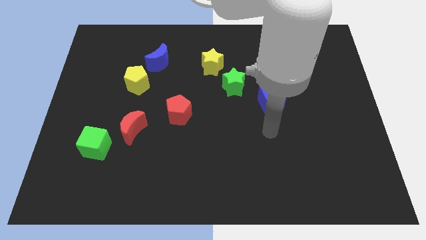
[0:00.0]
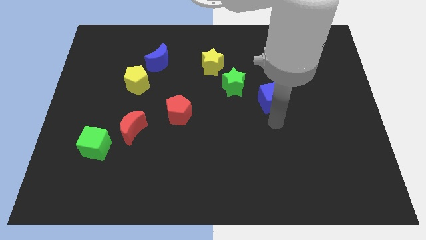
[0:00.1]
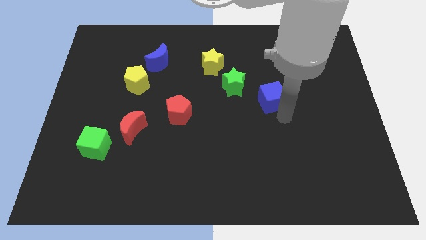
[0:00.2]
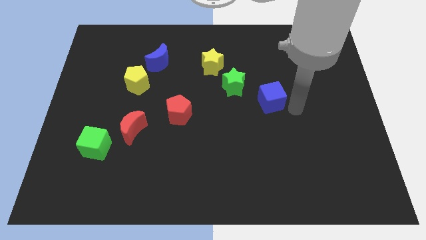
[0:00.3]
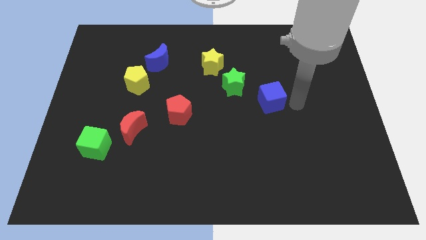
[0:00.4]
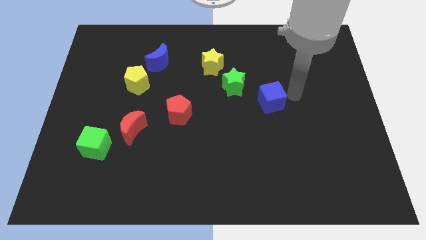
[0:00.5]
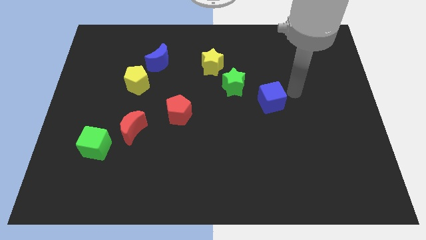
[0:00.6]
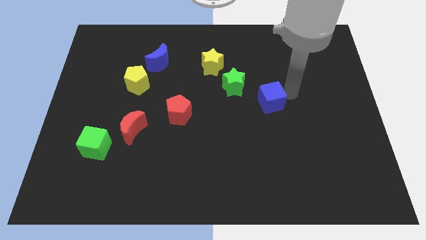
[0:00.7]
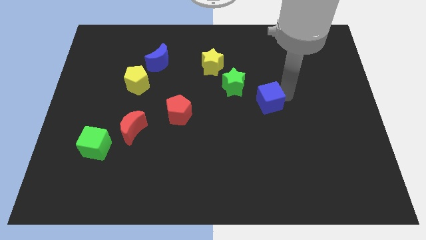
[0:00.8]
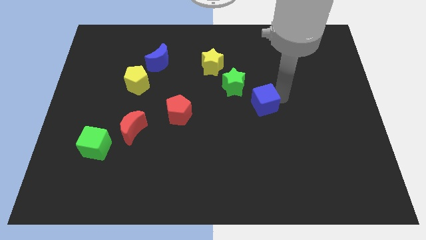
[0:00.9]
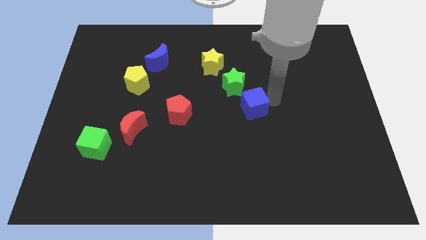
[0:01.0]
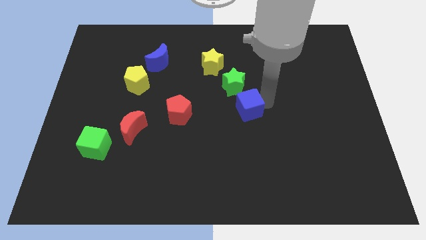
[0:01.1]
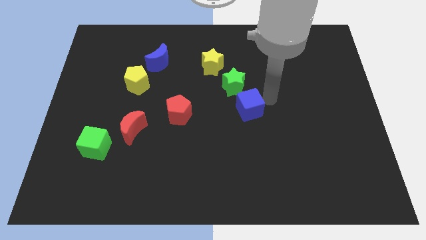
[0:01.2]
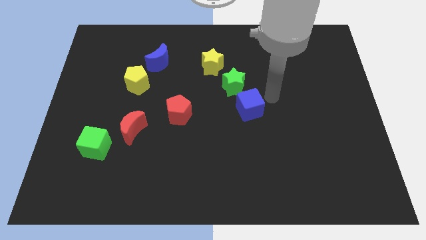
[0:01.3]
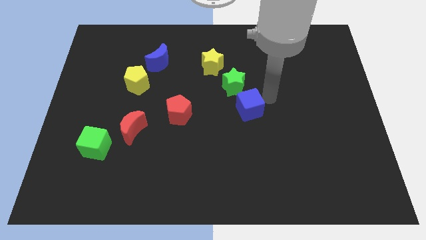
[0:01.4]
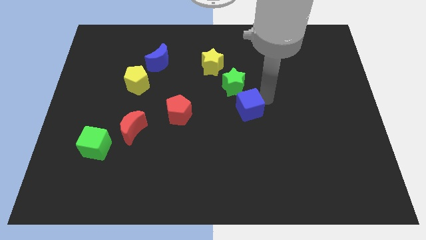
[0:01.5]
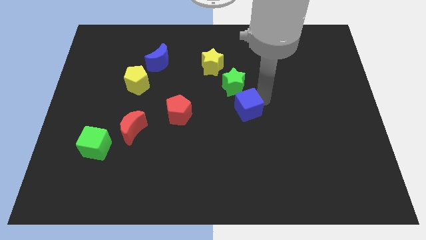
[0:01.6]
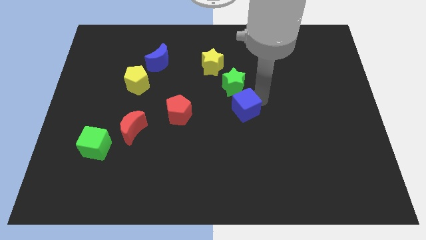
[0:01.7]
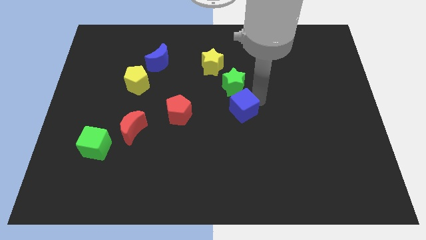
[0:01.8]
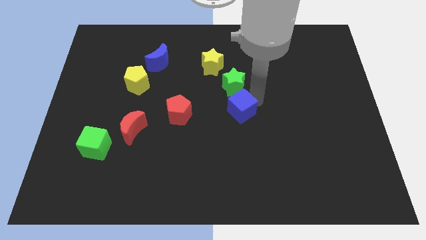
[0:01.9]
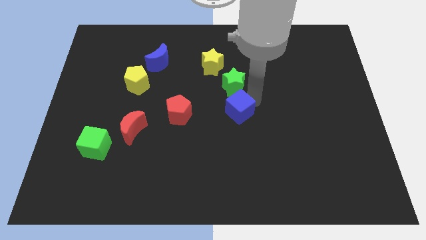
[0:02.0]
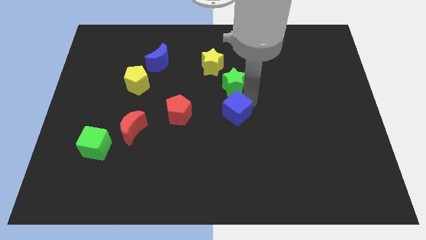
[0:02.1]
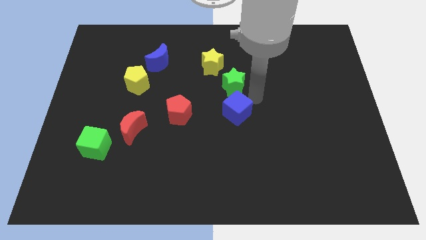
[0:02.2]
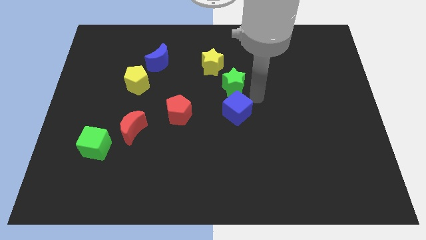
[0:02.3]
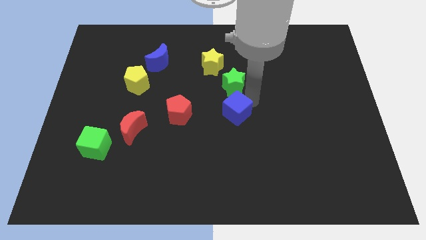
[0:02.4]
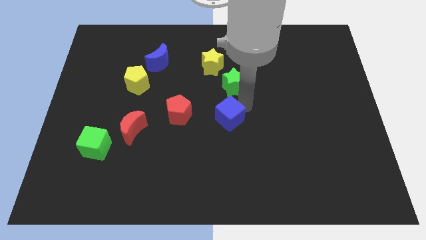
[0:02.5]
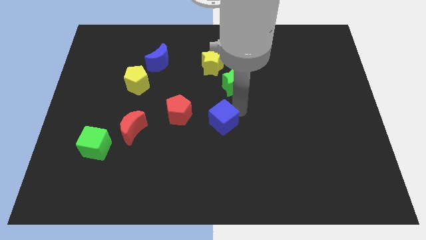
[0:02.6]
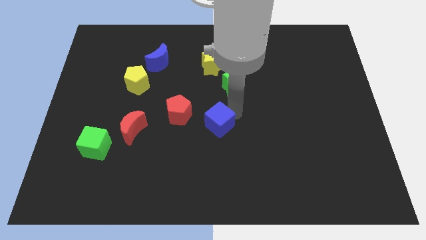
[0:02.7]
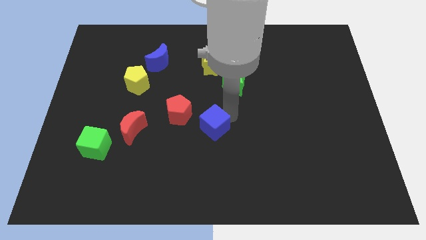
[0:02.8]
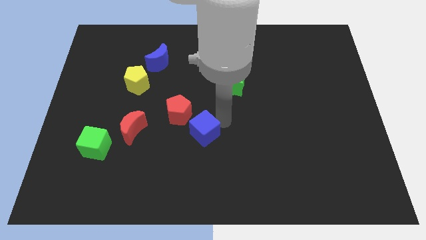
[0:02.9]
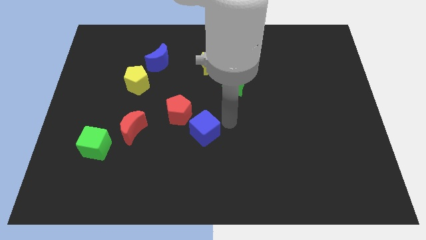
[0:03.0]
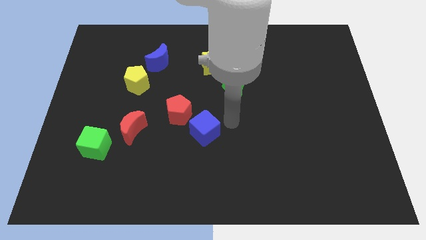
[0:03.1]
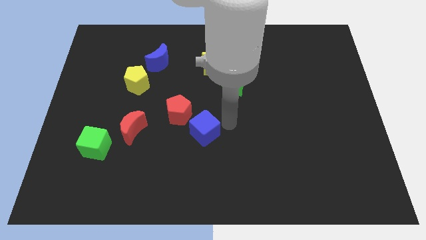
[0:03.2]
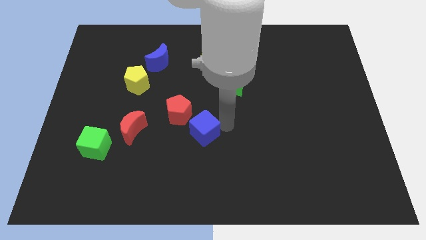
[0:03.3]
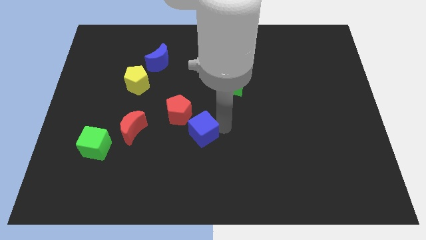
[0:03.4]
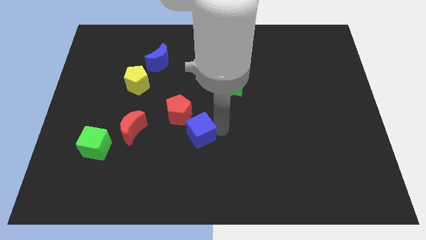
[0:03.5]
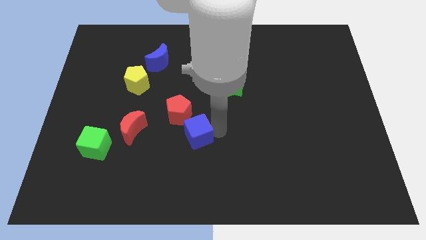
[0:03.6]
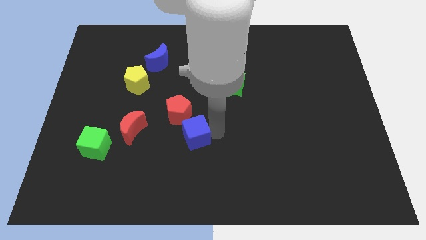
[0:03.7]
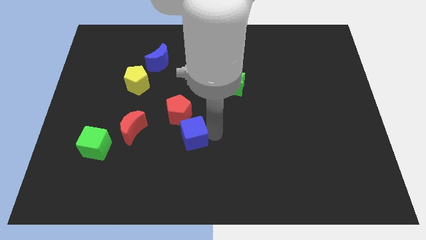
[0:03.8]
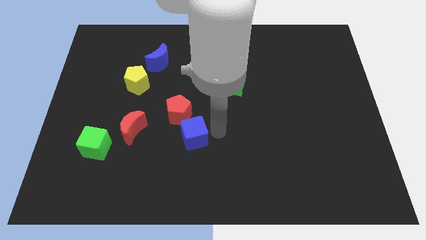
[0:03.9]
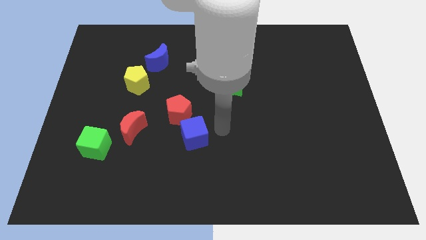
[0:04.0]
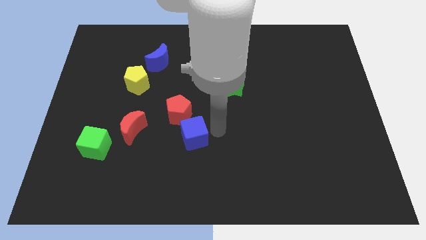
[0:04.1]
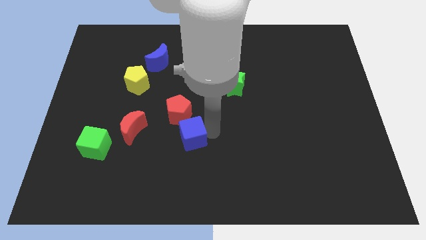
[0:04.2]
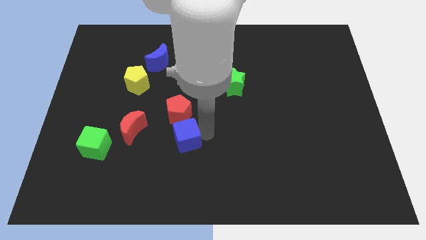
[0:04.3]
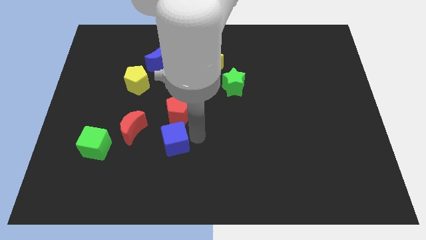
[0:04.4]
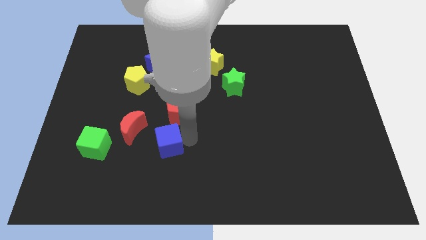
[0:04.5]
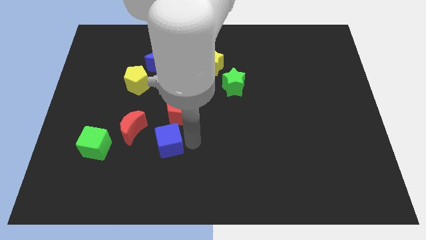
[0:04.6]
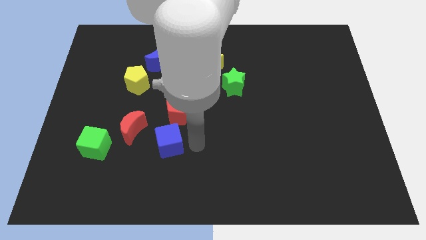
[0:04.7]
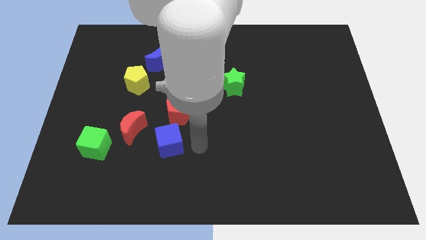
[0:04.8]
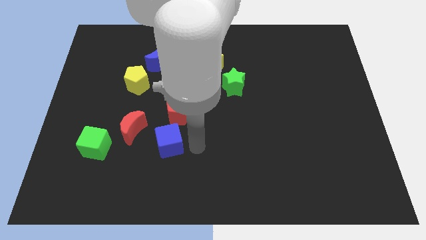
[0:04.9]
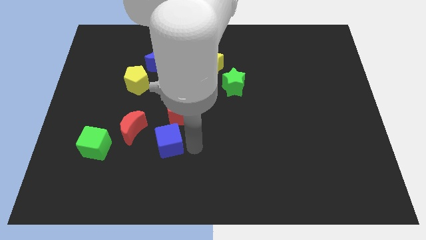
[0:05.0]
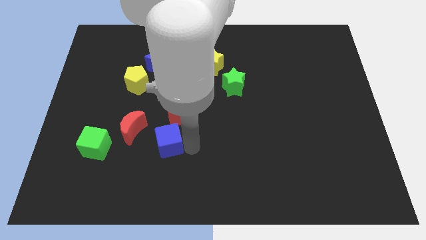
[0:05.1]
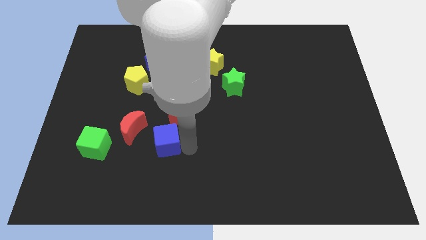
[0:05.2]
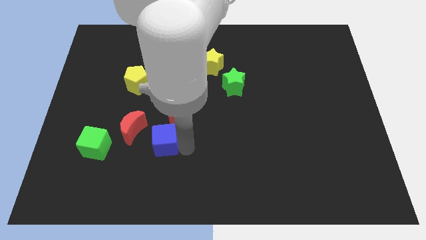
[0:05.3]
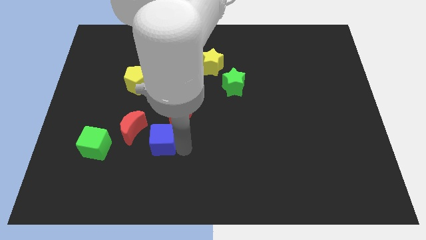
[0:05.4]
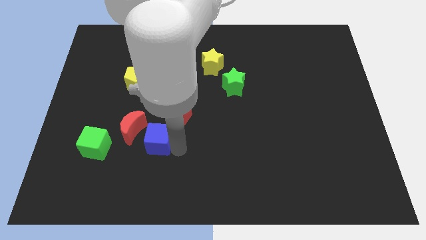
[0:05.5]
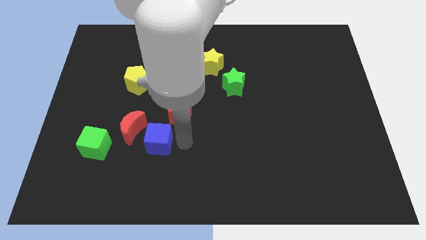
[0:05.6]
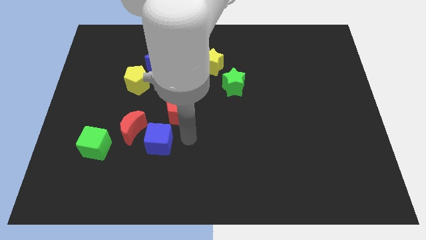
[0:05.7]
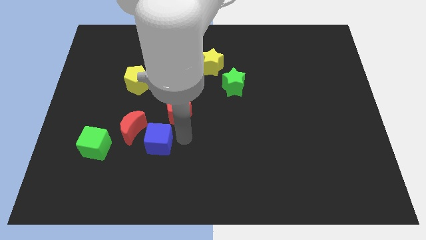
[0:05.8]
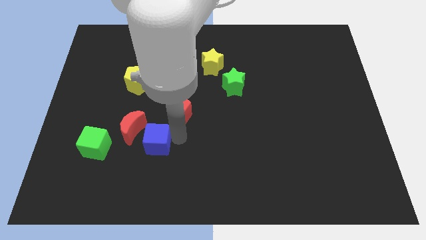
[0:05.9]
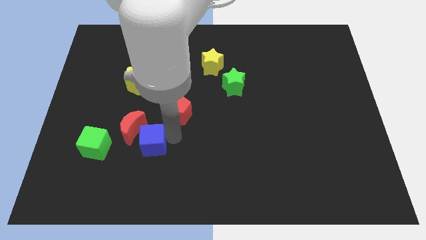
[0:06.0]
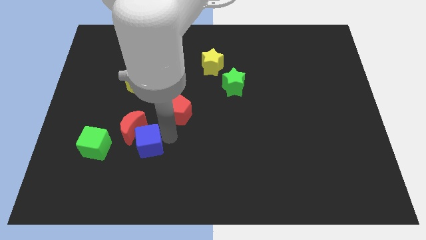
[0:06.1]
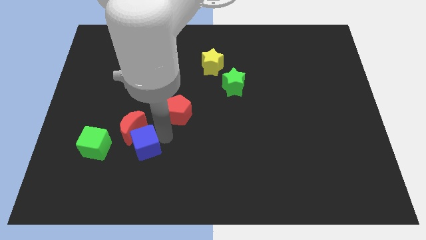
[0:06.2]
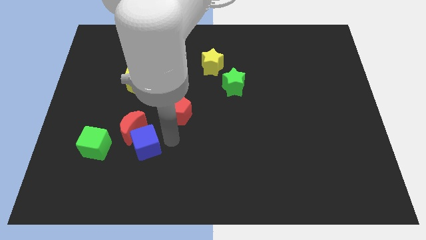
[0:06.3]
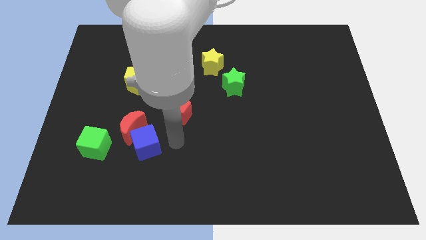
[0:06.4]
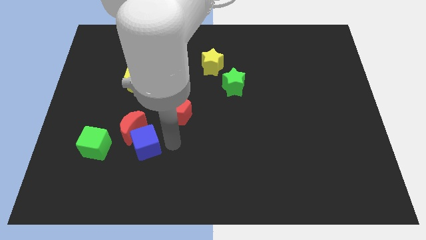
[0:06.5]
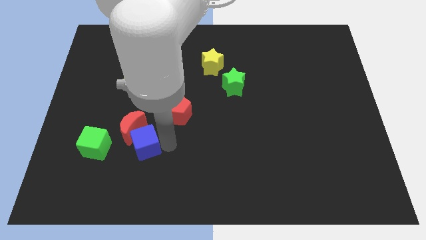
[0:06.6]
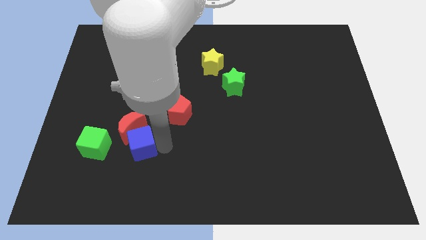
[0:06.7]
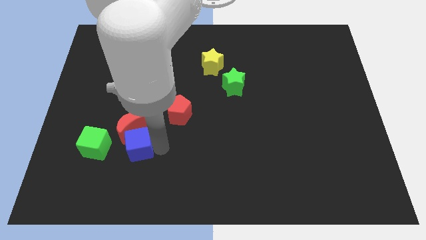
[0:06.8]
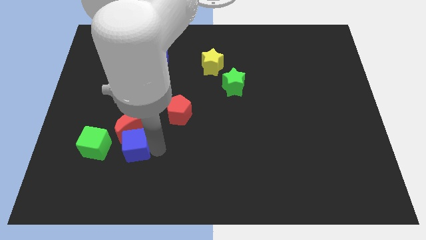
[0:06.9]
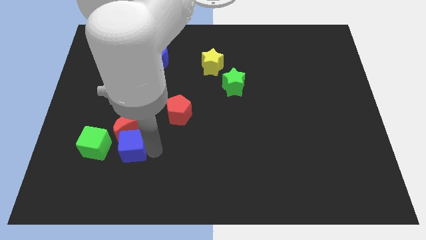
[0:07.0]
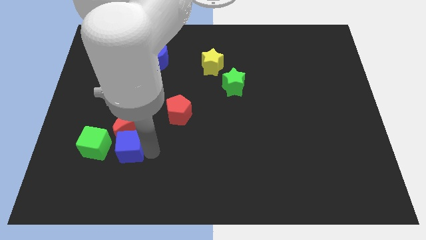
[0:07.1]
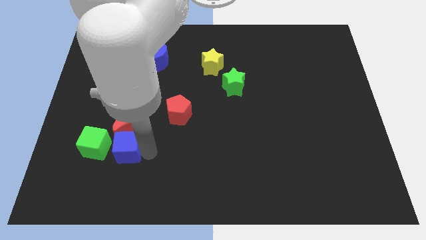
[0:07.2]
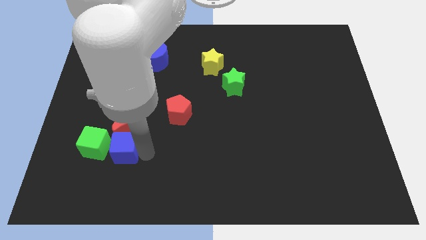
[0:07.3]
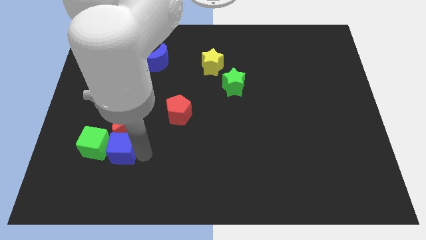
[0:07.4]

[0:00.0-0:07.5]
put the blue cube towards the green cube
